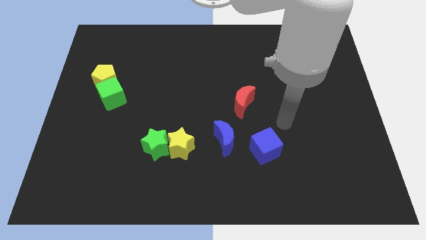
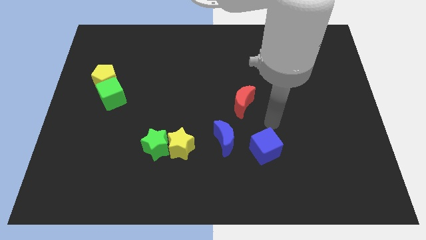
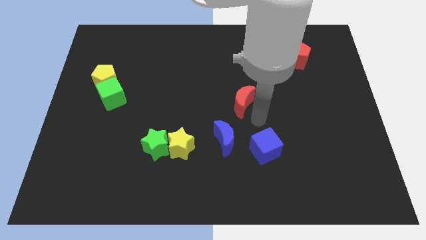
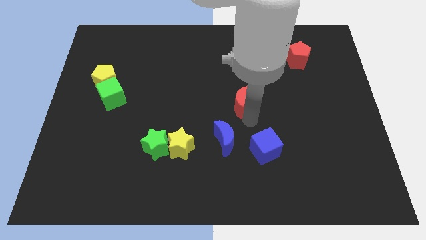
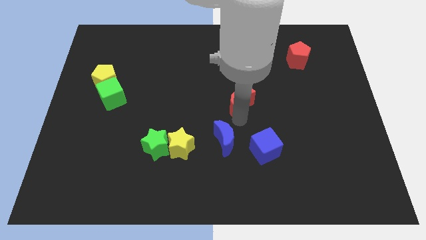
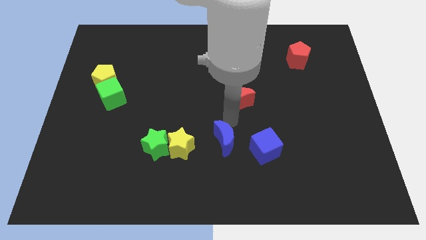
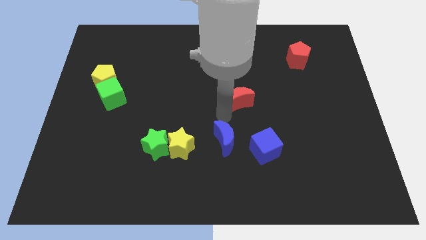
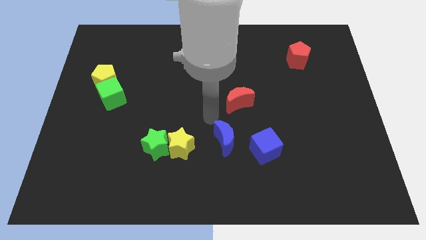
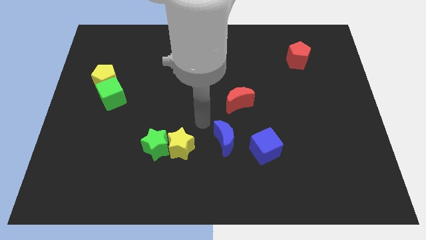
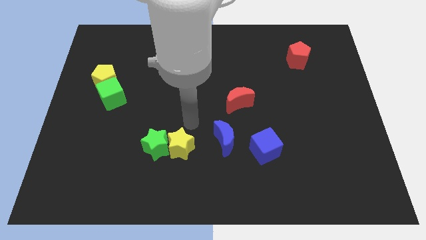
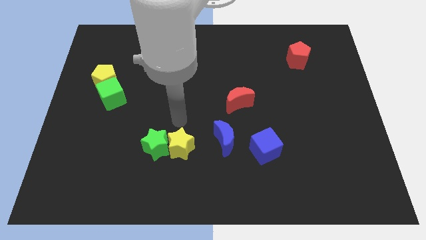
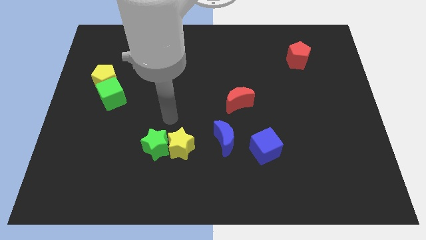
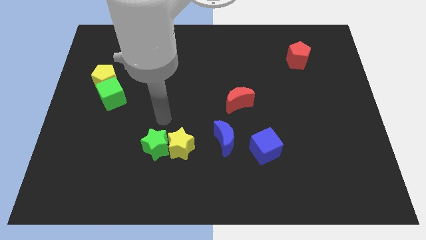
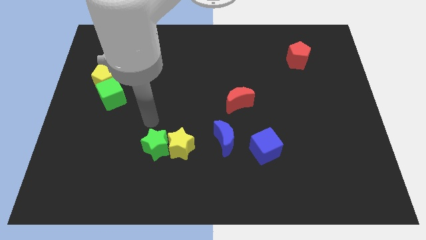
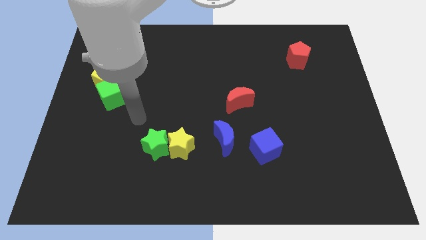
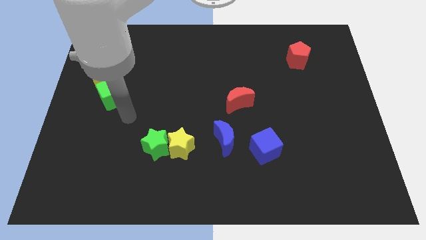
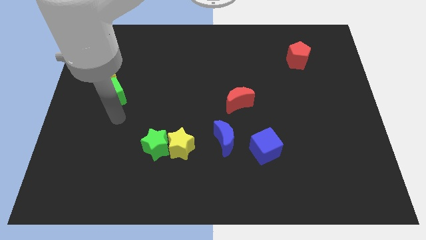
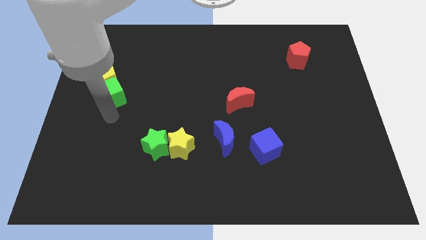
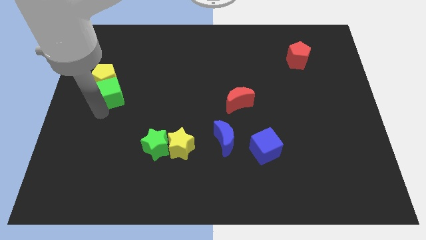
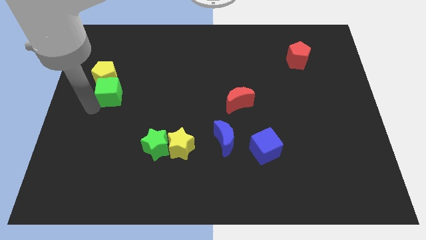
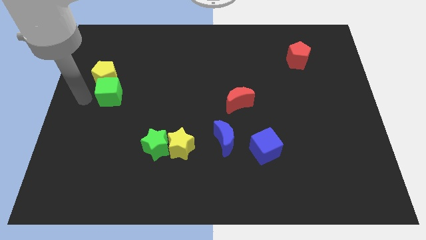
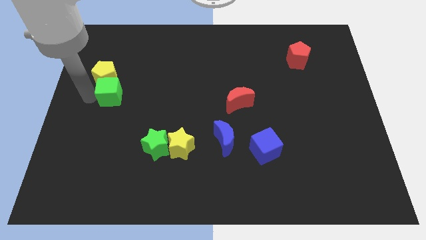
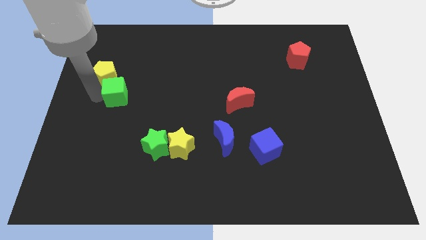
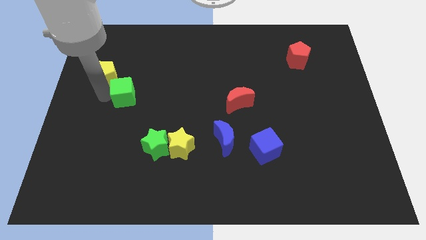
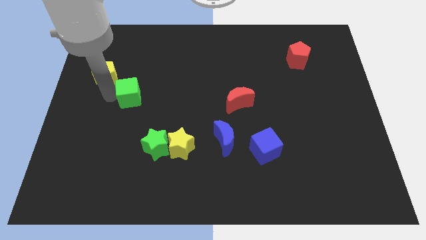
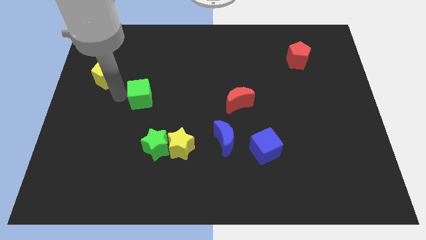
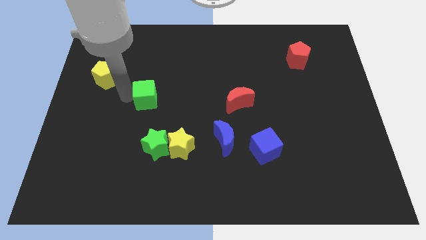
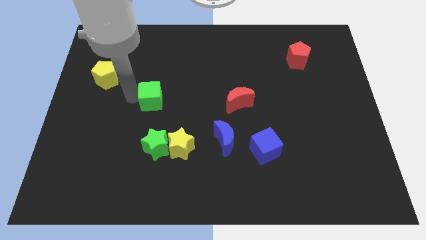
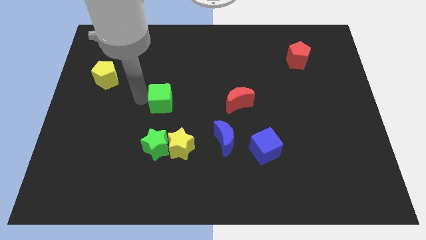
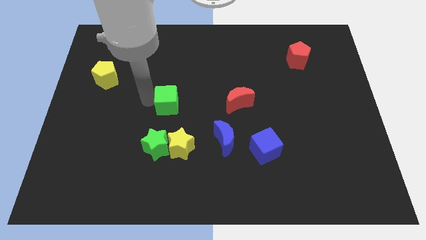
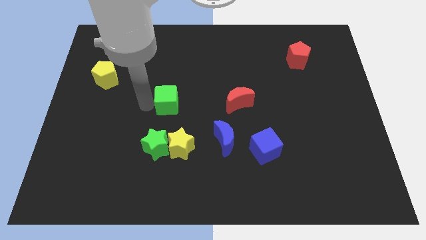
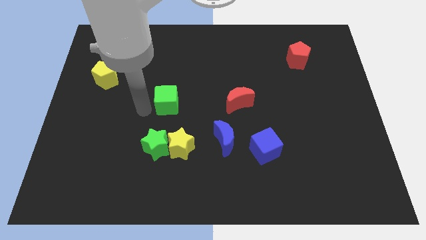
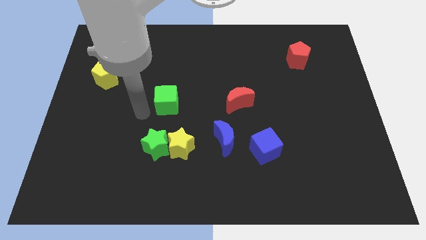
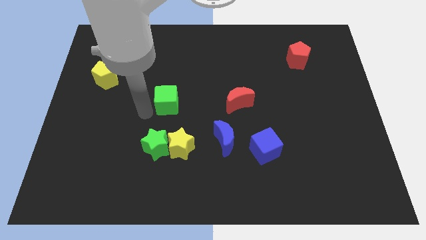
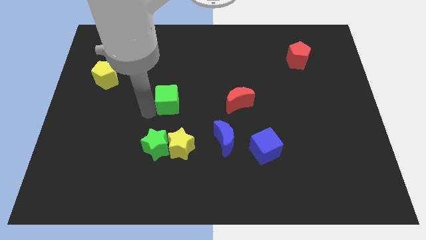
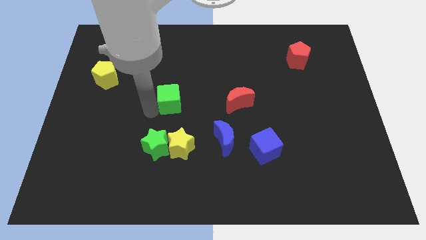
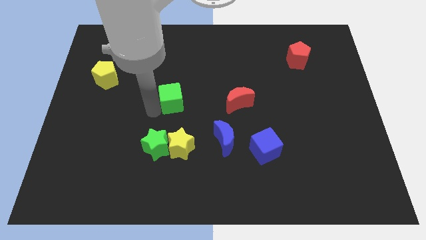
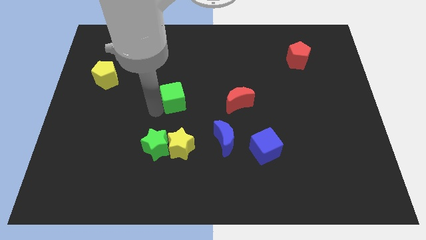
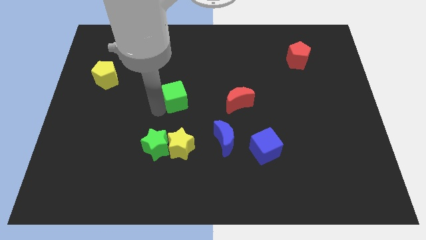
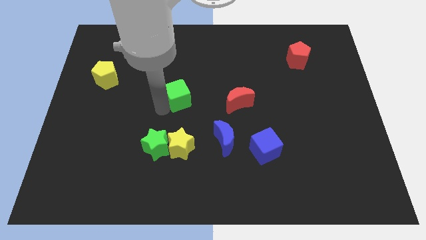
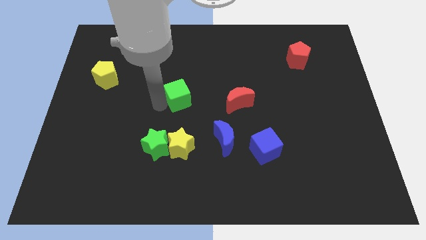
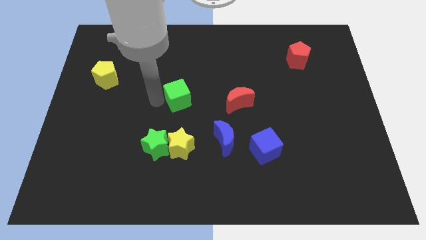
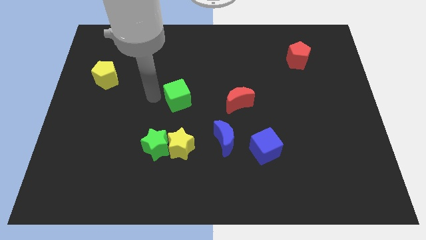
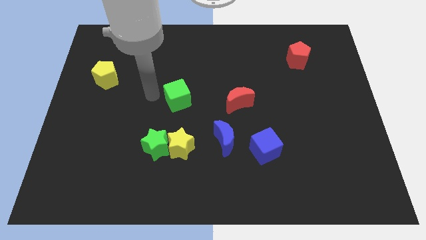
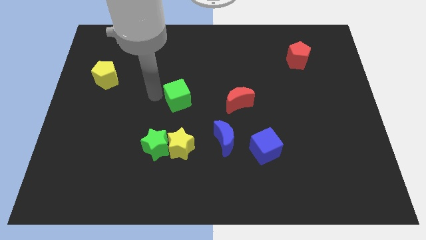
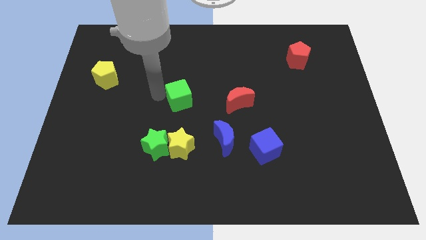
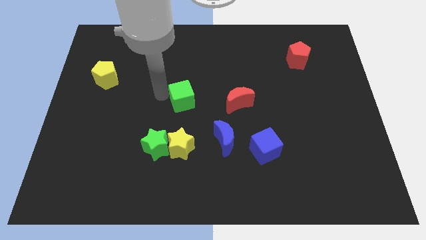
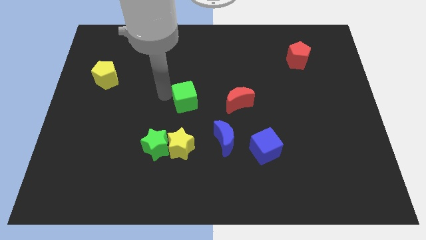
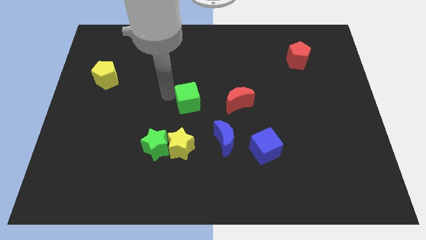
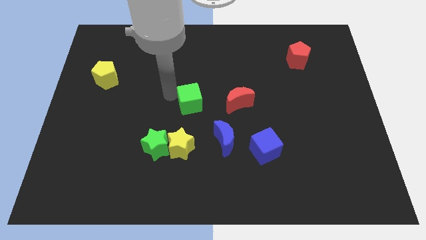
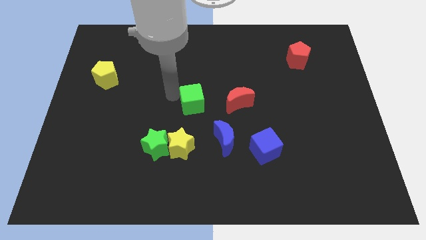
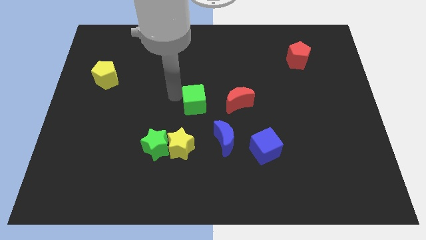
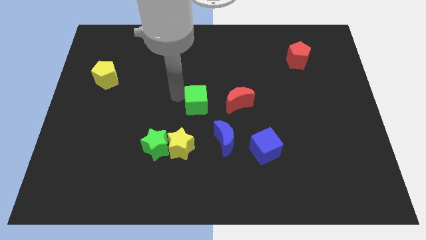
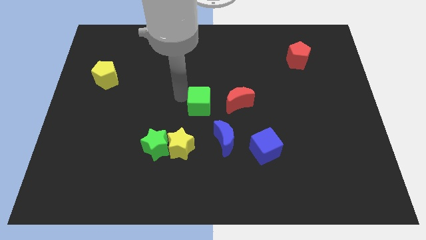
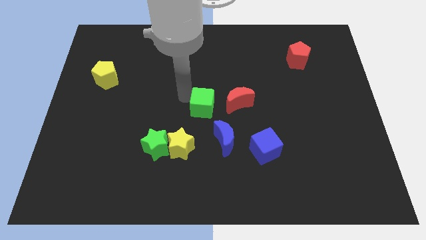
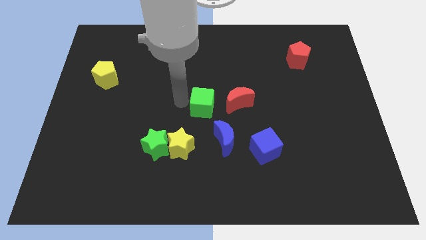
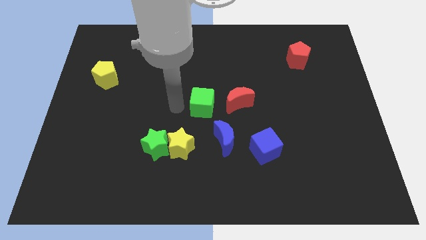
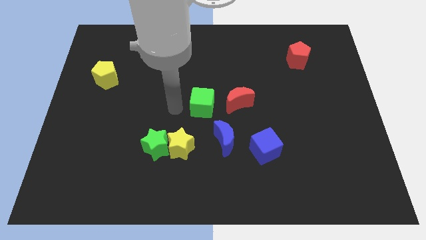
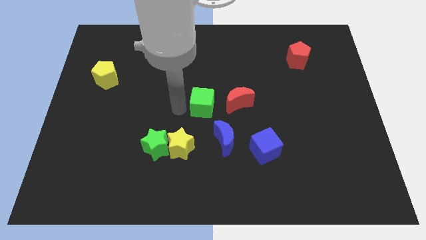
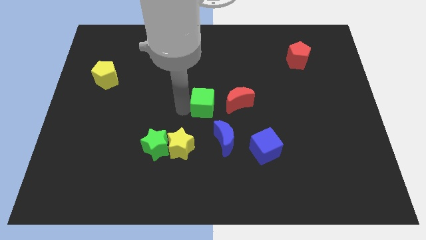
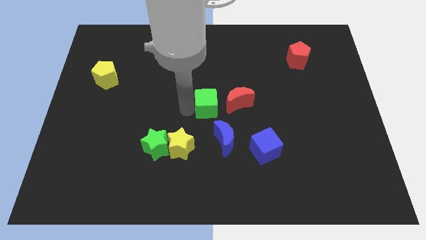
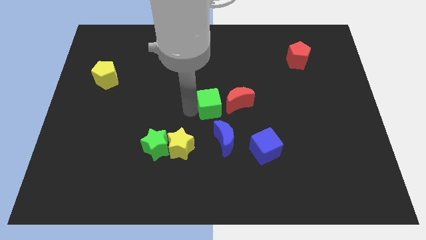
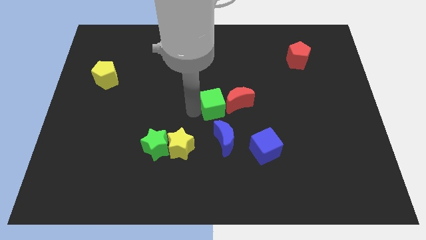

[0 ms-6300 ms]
move the green cube next to the red moon
